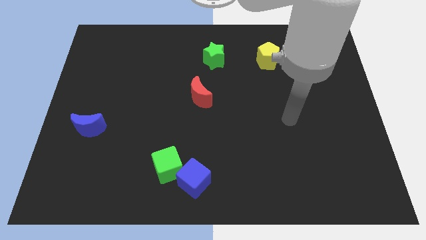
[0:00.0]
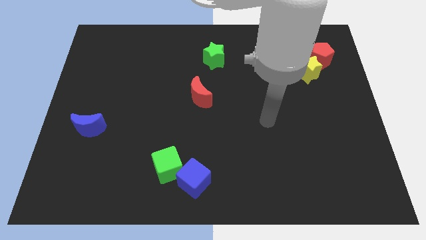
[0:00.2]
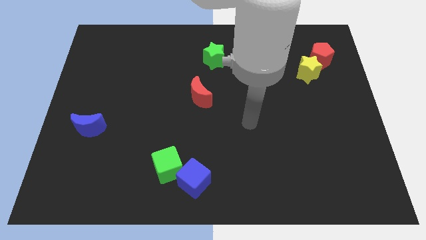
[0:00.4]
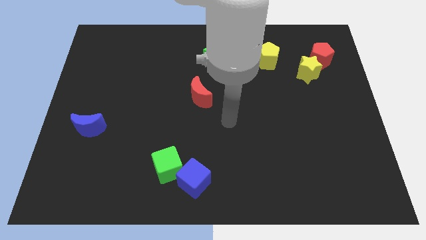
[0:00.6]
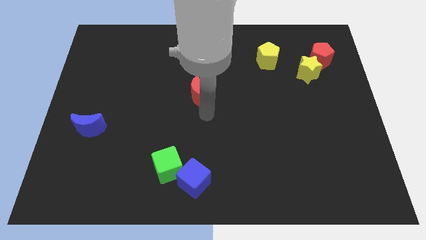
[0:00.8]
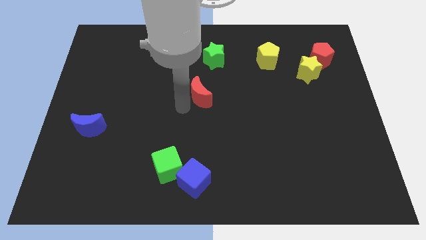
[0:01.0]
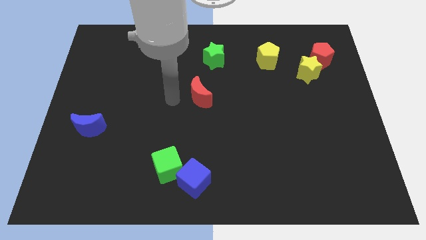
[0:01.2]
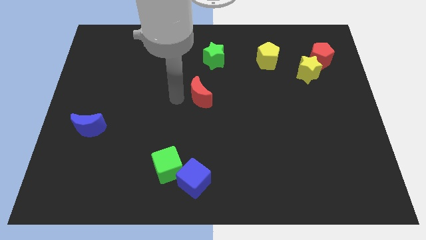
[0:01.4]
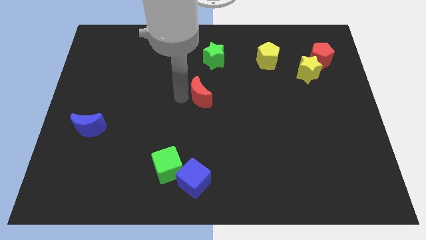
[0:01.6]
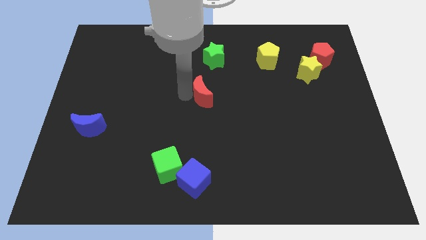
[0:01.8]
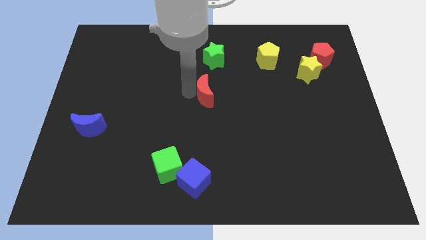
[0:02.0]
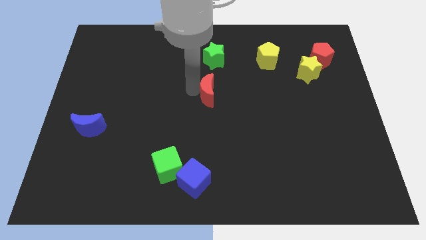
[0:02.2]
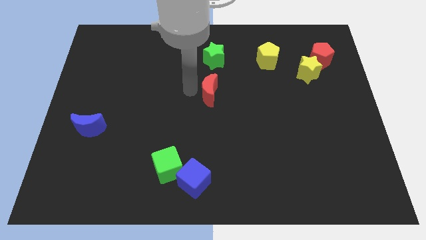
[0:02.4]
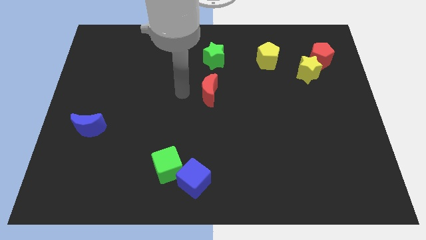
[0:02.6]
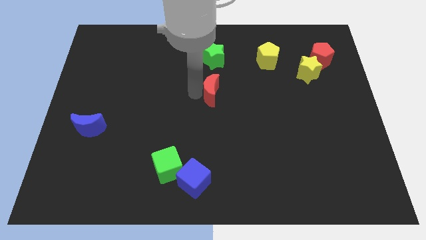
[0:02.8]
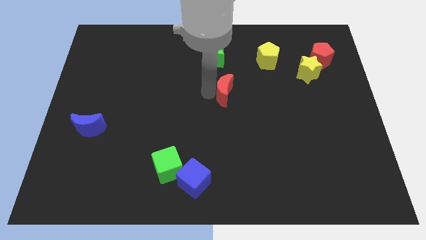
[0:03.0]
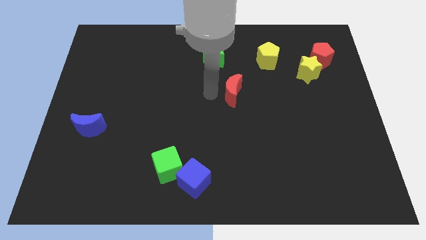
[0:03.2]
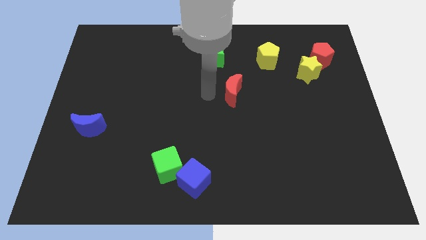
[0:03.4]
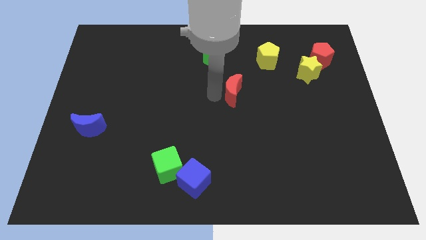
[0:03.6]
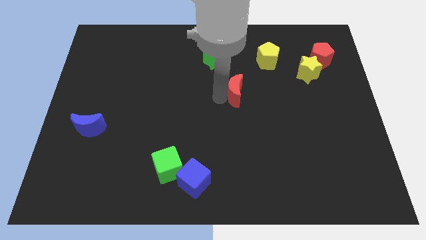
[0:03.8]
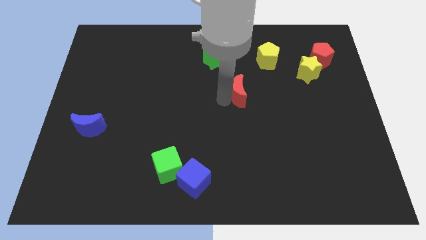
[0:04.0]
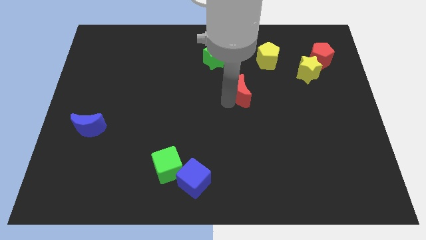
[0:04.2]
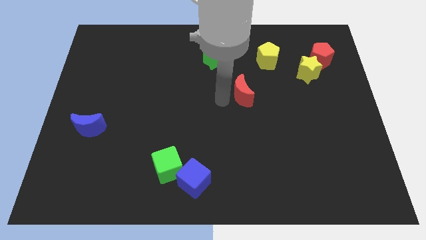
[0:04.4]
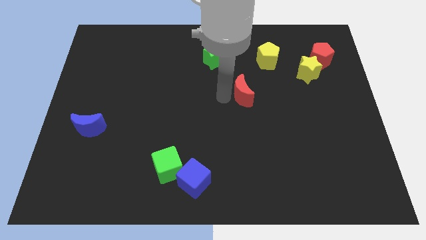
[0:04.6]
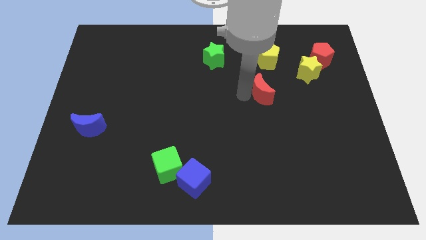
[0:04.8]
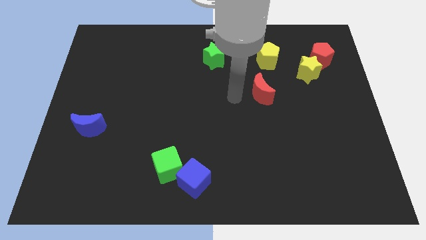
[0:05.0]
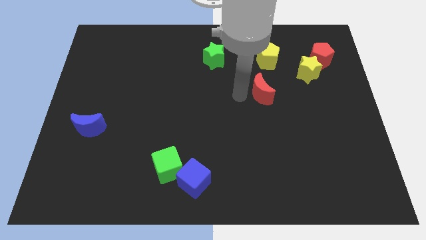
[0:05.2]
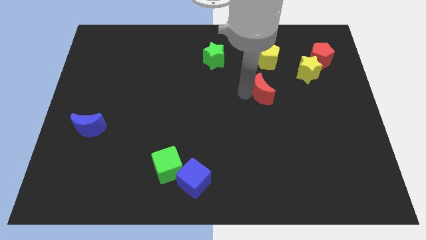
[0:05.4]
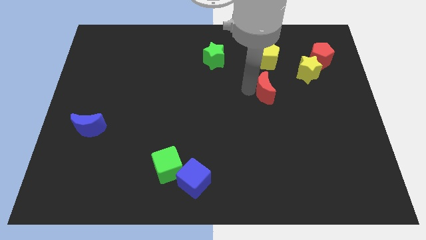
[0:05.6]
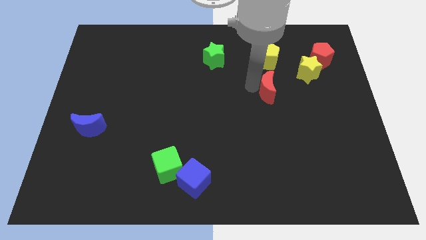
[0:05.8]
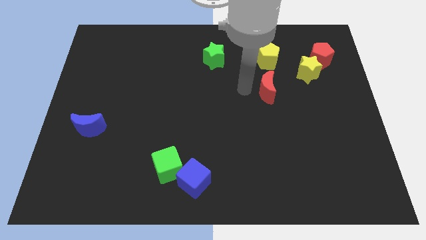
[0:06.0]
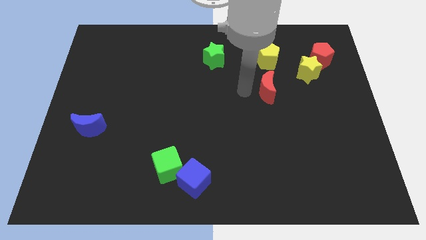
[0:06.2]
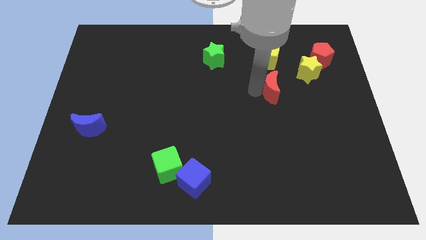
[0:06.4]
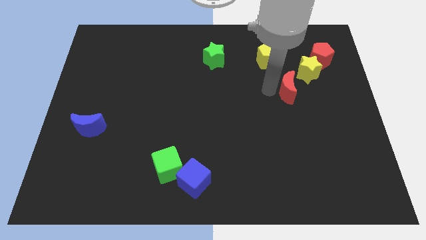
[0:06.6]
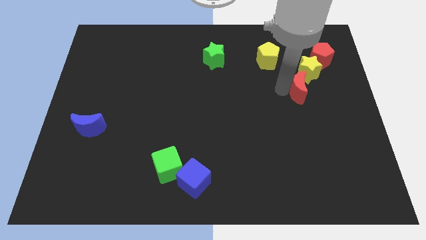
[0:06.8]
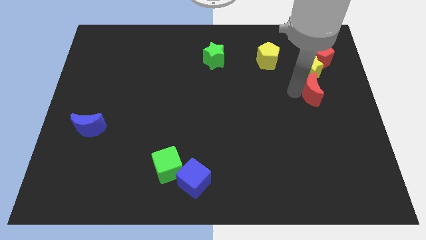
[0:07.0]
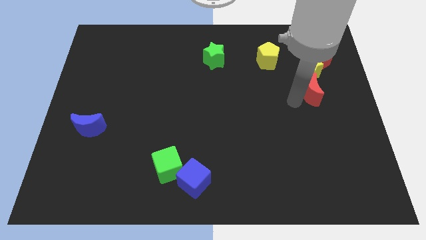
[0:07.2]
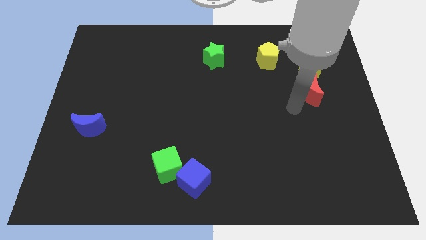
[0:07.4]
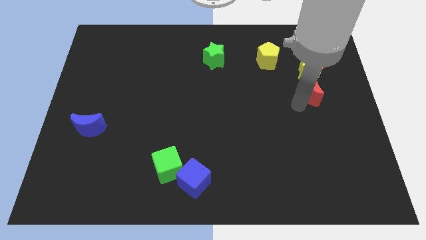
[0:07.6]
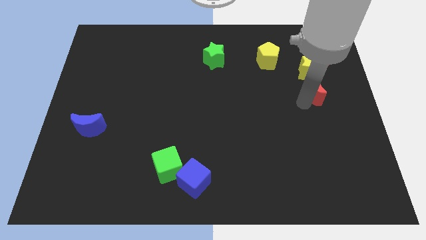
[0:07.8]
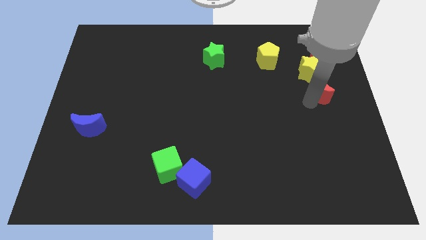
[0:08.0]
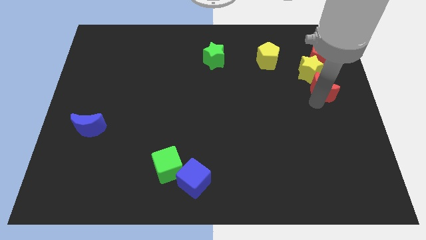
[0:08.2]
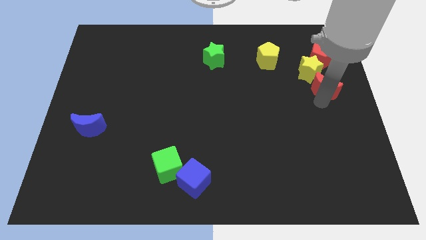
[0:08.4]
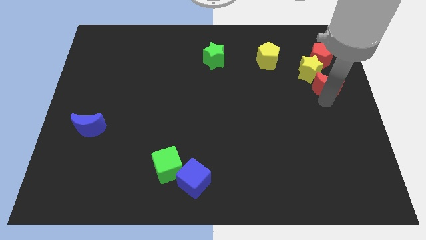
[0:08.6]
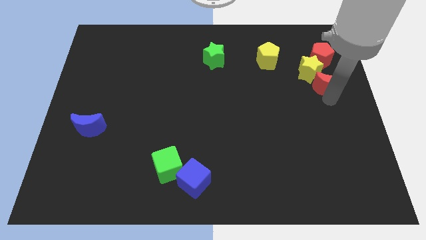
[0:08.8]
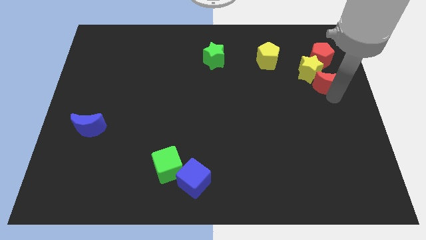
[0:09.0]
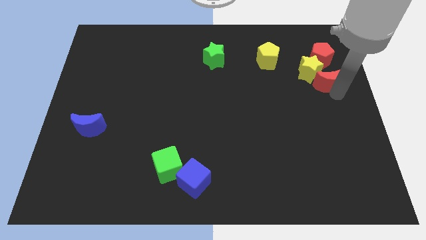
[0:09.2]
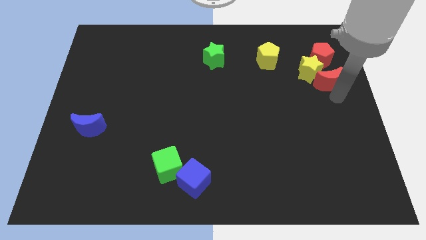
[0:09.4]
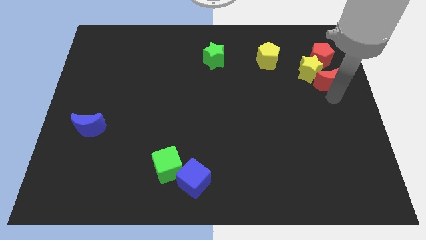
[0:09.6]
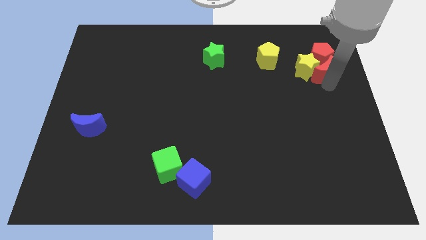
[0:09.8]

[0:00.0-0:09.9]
put the red moon towards the red pentagon

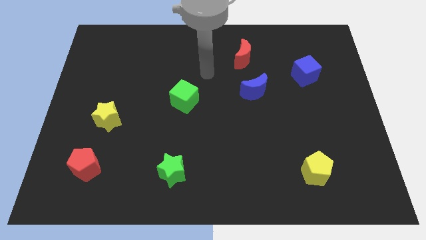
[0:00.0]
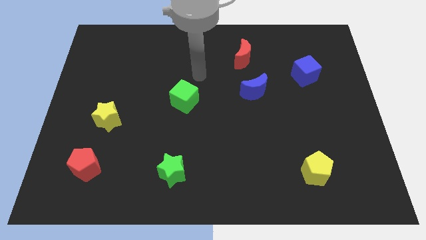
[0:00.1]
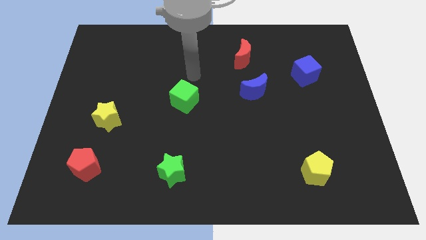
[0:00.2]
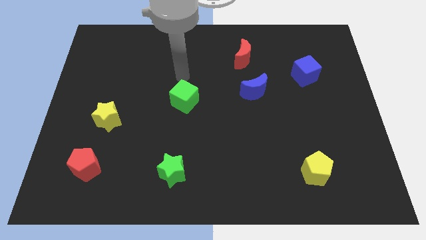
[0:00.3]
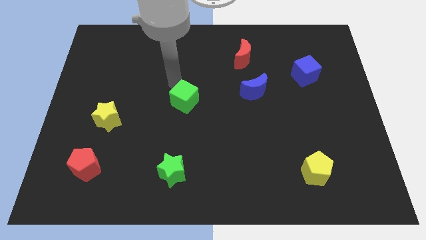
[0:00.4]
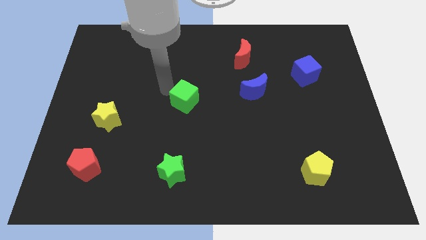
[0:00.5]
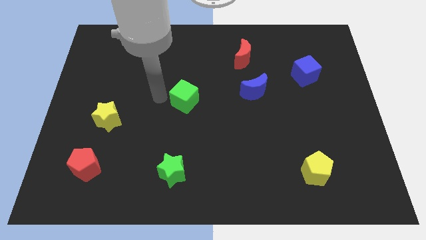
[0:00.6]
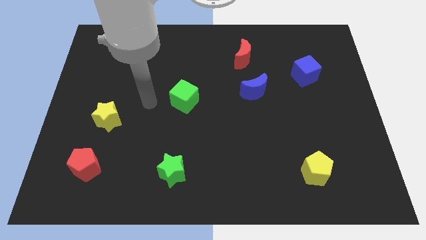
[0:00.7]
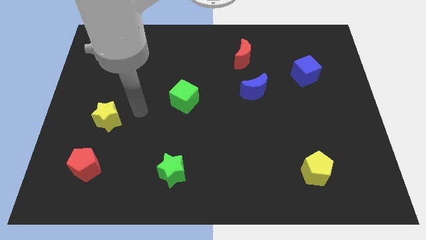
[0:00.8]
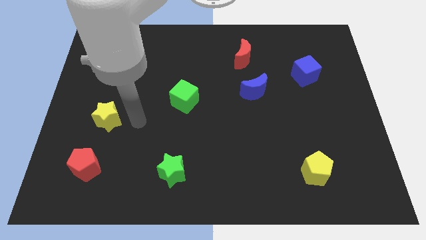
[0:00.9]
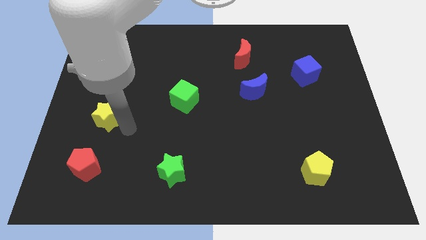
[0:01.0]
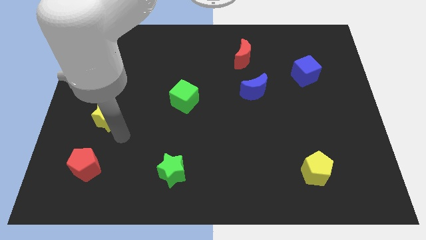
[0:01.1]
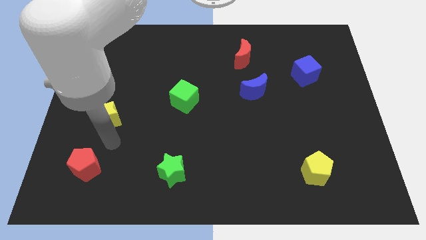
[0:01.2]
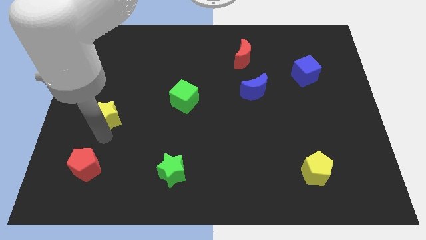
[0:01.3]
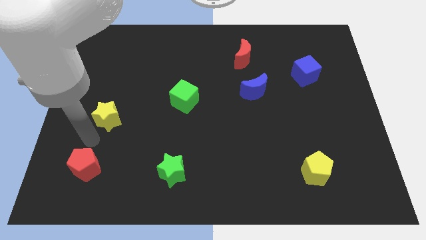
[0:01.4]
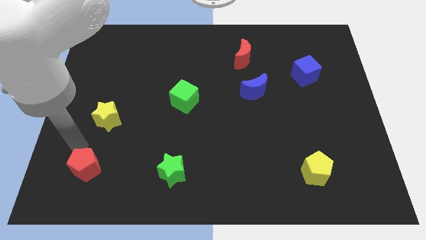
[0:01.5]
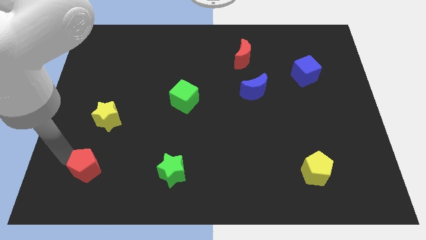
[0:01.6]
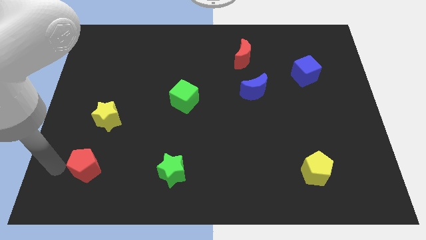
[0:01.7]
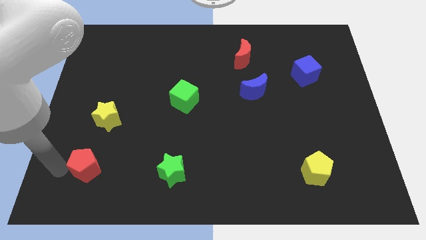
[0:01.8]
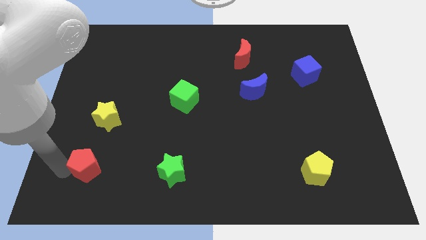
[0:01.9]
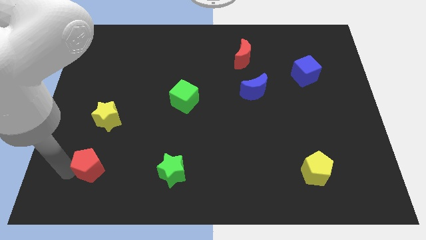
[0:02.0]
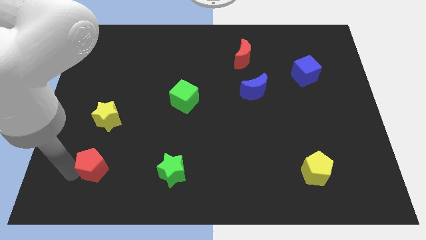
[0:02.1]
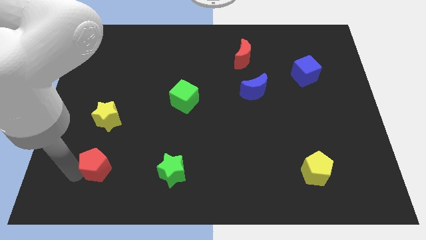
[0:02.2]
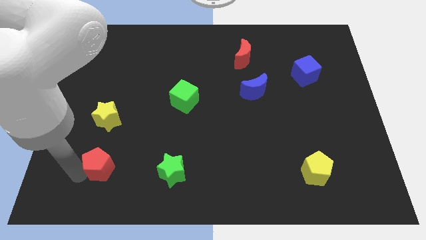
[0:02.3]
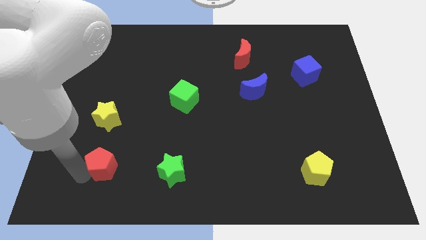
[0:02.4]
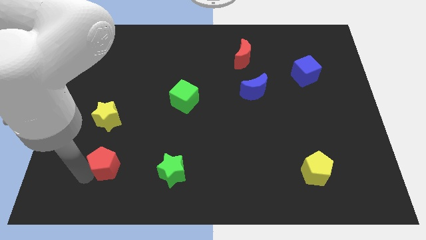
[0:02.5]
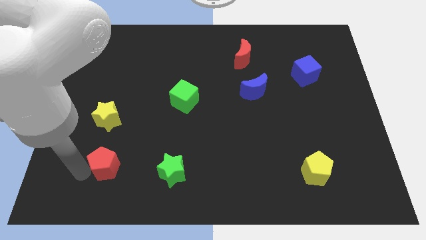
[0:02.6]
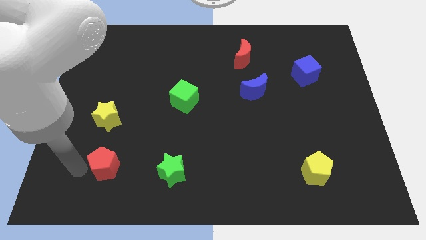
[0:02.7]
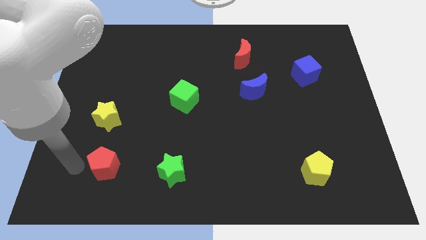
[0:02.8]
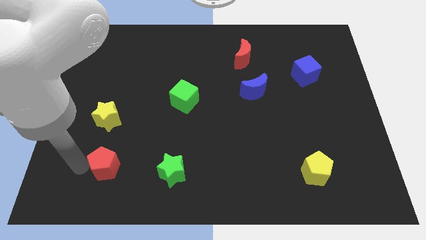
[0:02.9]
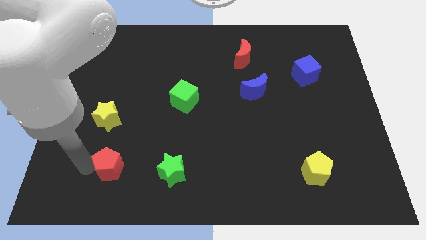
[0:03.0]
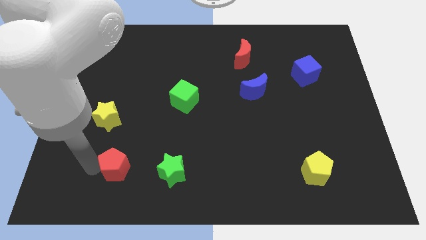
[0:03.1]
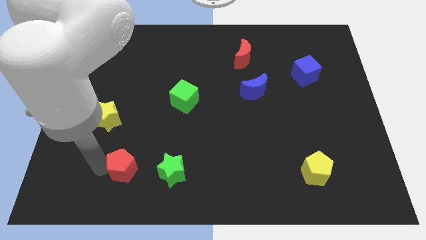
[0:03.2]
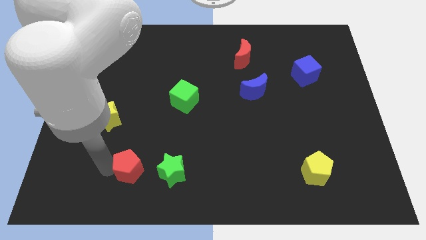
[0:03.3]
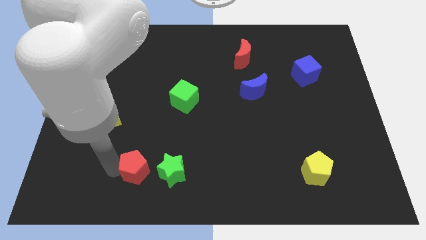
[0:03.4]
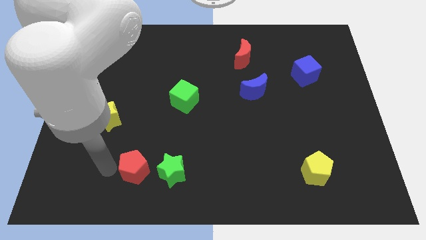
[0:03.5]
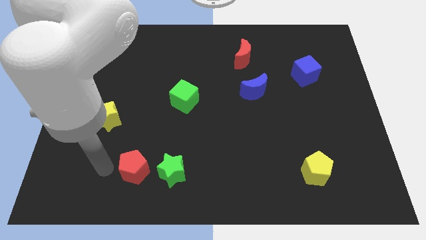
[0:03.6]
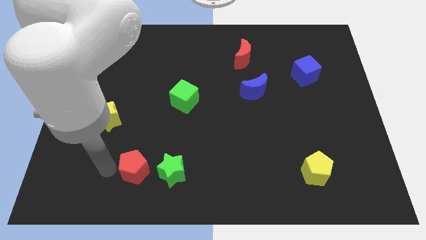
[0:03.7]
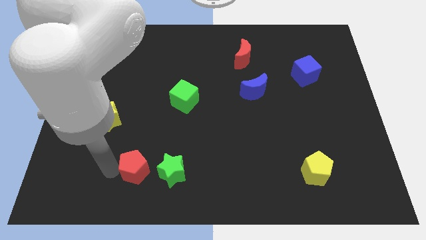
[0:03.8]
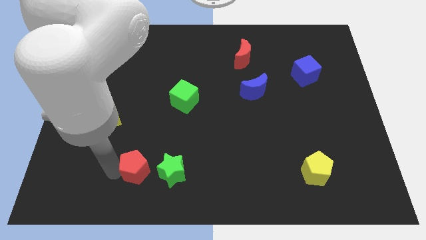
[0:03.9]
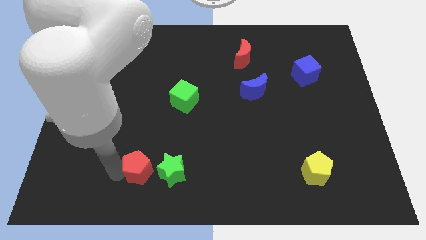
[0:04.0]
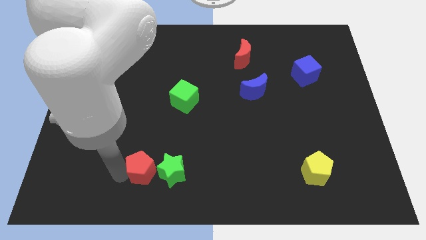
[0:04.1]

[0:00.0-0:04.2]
move the red pentagon next to the green star
